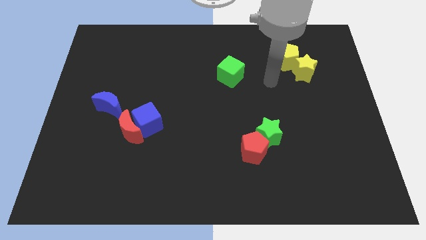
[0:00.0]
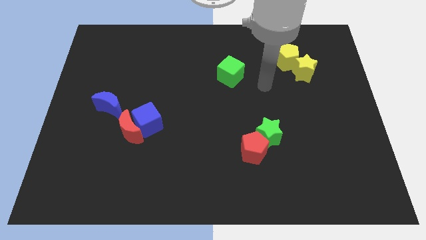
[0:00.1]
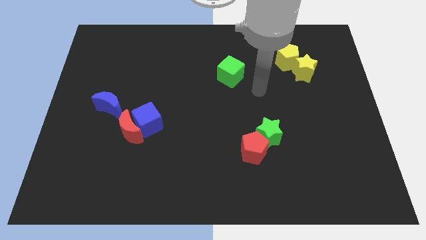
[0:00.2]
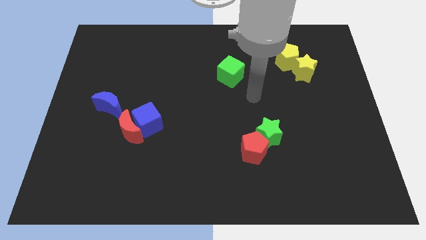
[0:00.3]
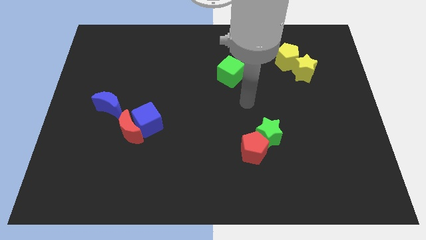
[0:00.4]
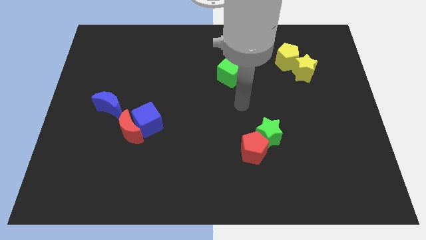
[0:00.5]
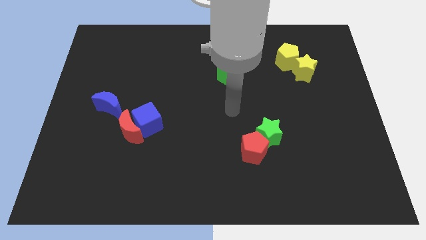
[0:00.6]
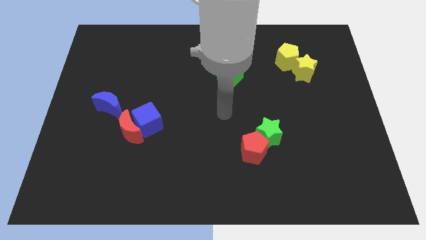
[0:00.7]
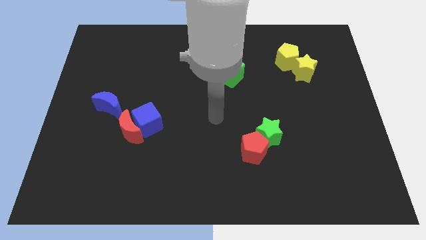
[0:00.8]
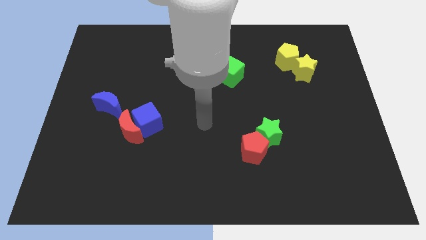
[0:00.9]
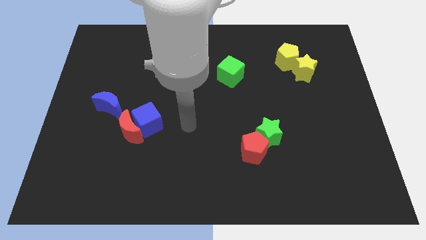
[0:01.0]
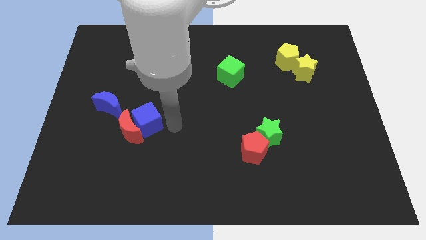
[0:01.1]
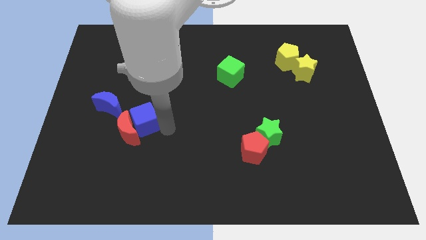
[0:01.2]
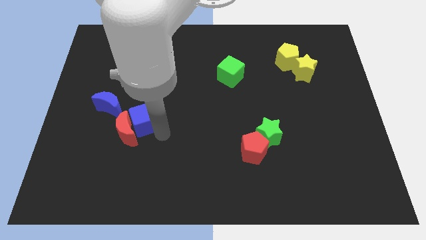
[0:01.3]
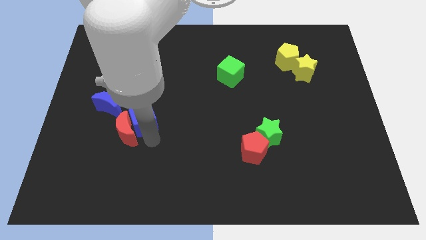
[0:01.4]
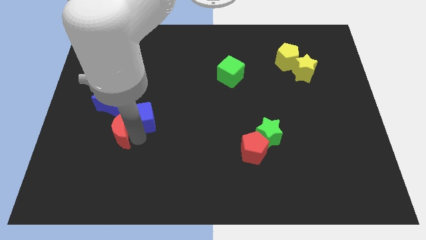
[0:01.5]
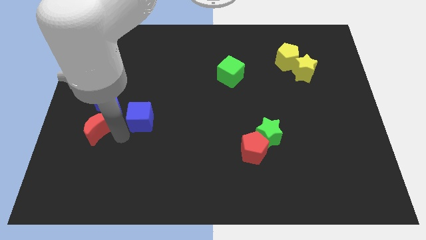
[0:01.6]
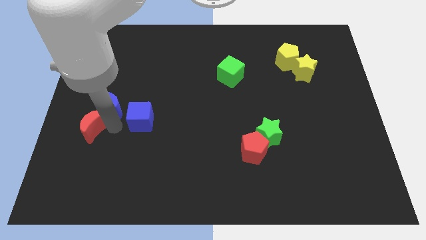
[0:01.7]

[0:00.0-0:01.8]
separate the blue cube from the red moon

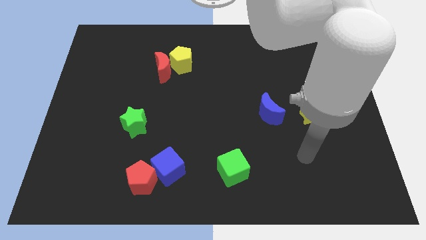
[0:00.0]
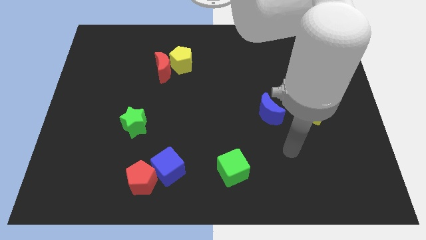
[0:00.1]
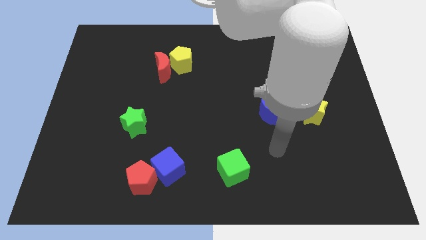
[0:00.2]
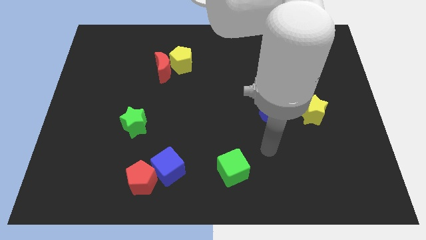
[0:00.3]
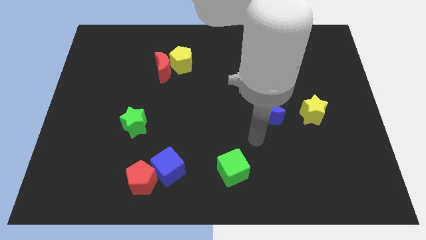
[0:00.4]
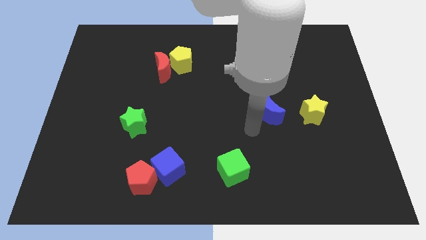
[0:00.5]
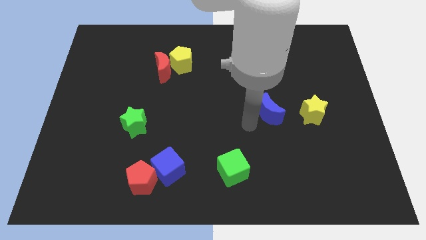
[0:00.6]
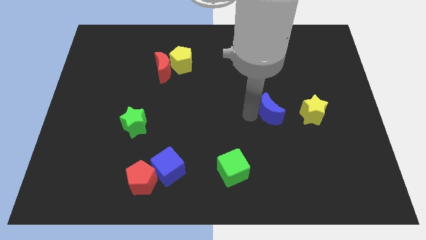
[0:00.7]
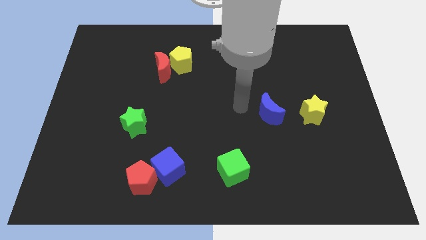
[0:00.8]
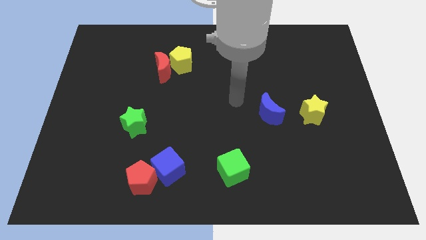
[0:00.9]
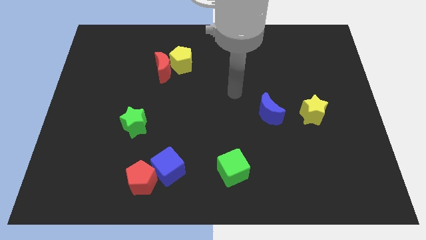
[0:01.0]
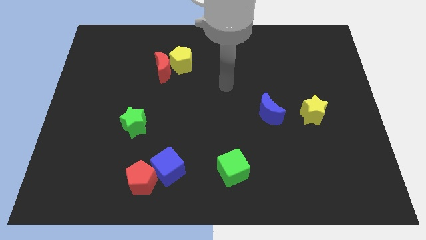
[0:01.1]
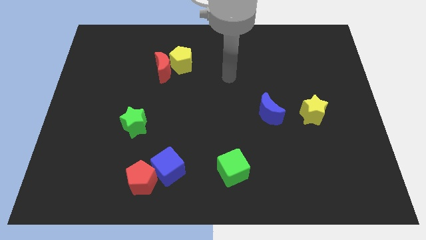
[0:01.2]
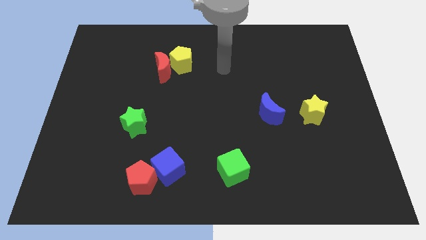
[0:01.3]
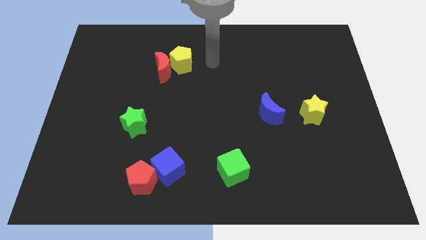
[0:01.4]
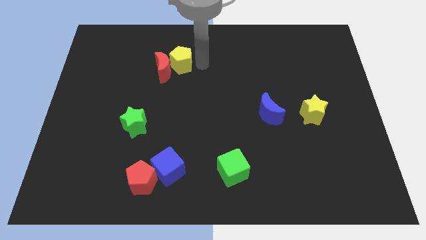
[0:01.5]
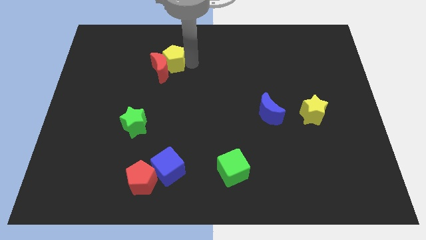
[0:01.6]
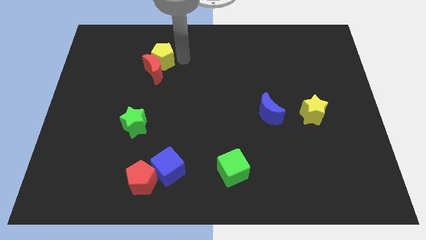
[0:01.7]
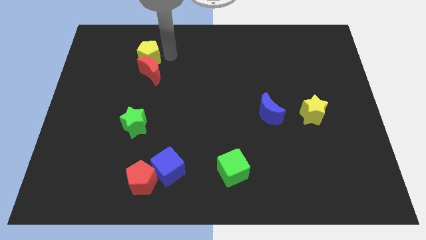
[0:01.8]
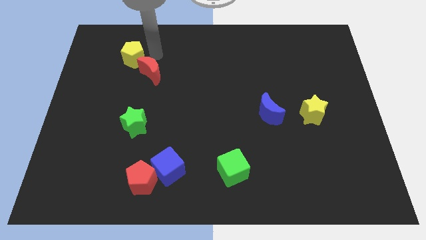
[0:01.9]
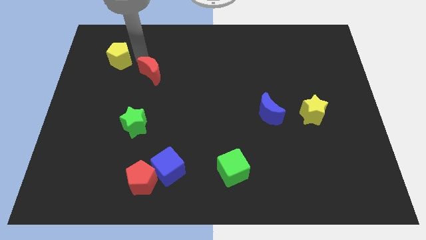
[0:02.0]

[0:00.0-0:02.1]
move the red moon away from the yellow pentagon

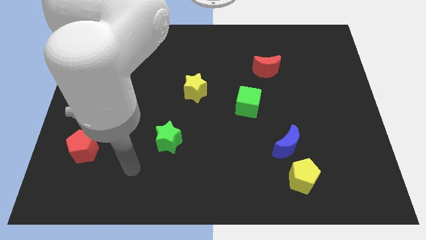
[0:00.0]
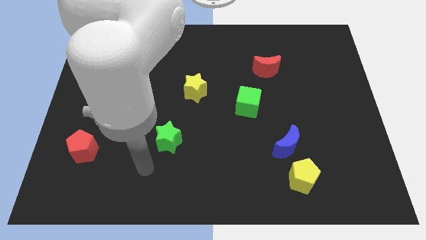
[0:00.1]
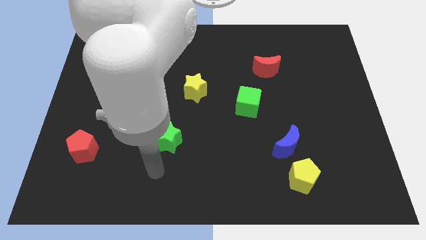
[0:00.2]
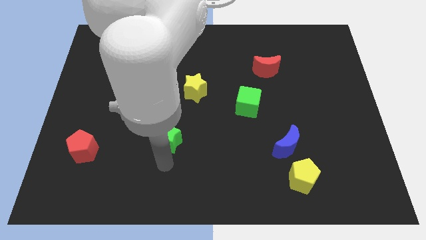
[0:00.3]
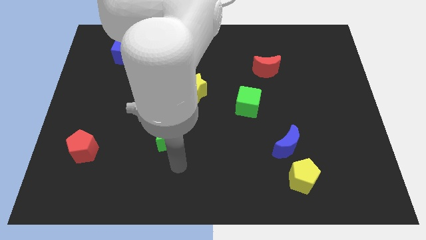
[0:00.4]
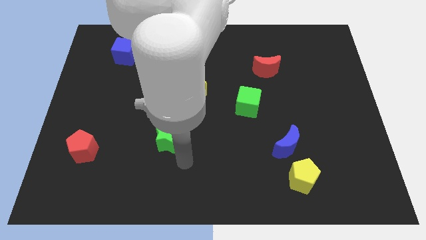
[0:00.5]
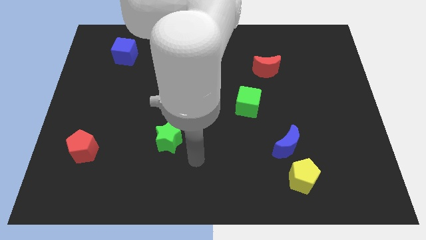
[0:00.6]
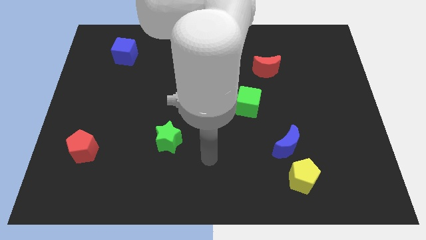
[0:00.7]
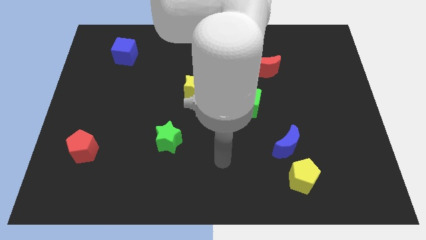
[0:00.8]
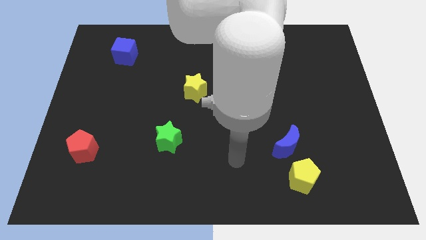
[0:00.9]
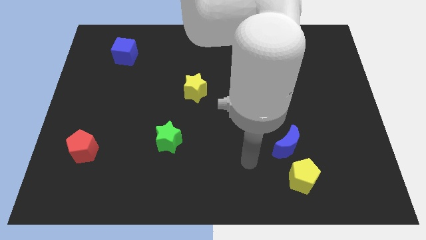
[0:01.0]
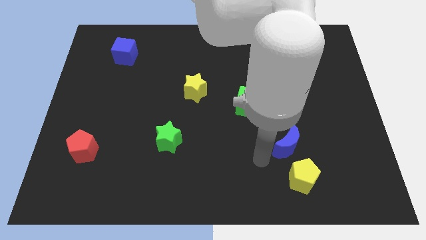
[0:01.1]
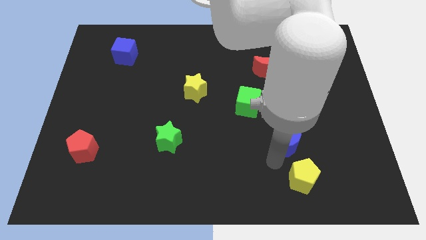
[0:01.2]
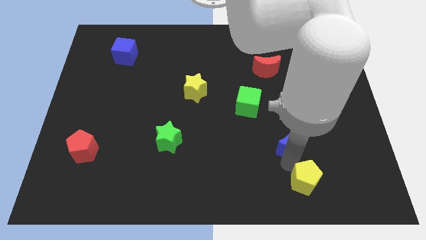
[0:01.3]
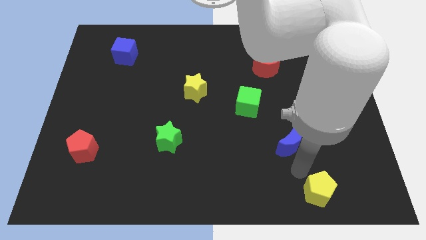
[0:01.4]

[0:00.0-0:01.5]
pull the blue moon apart from the yellow pentagon

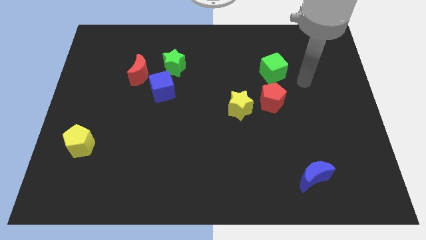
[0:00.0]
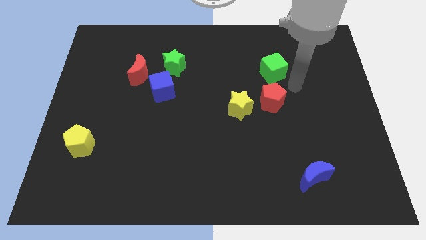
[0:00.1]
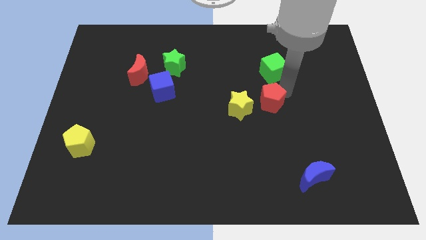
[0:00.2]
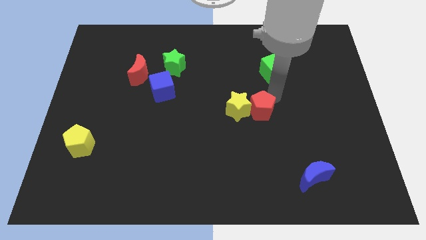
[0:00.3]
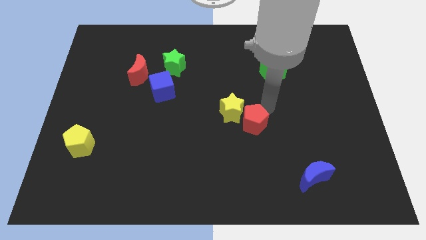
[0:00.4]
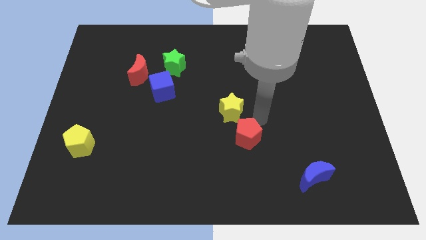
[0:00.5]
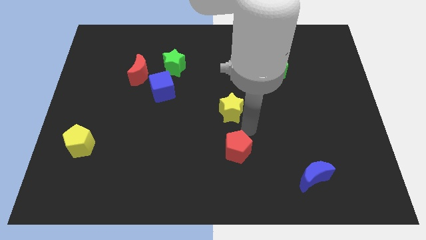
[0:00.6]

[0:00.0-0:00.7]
move the yellow star away from the red pentagon

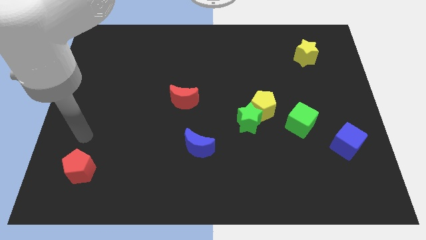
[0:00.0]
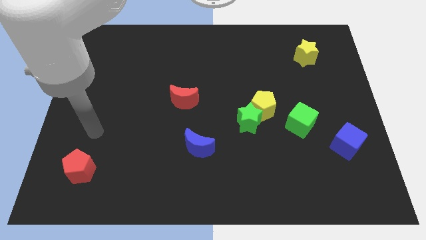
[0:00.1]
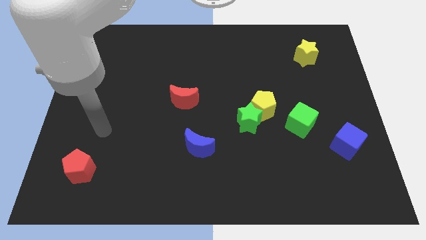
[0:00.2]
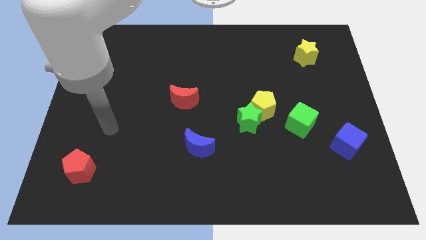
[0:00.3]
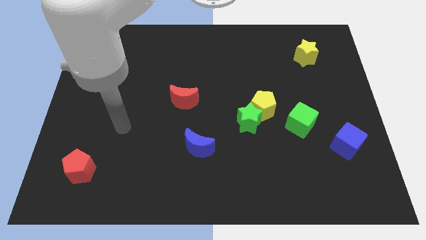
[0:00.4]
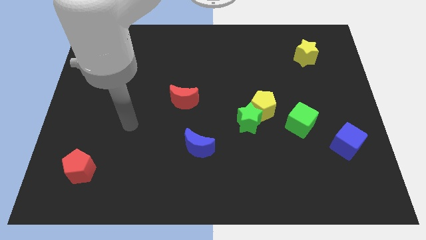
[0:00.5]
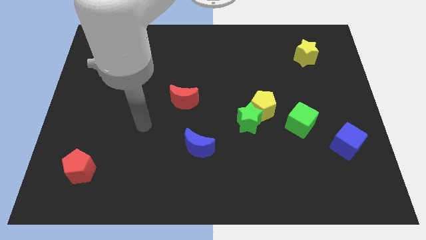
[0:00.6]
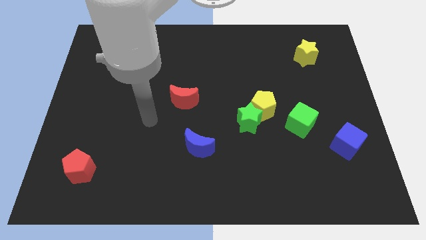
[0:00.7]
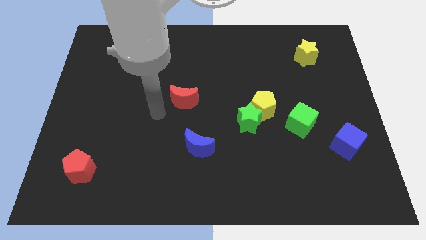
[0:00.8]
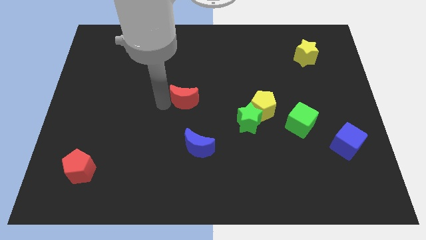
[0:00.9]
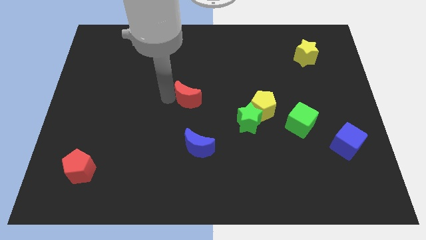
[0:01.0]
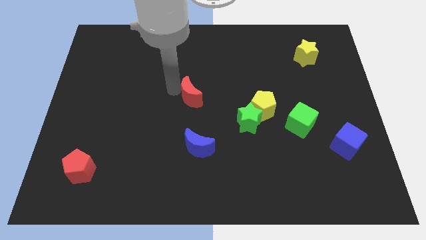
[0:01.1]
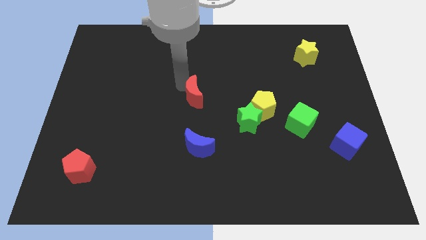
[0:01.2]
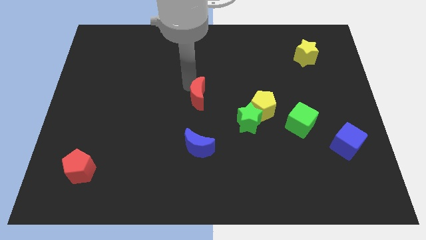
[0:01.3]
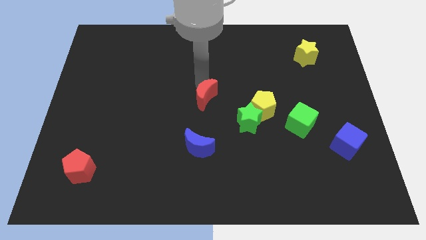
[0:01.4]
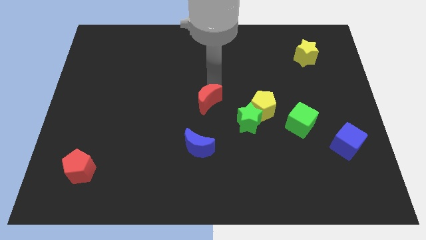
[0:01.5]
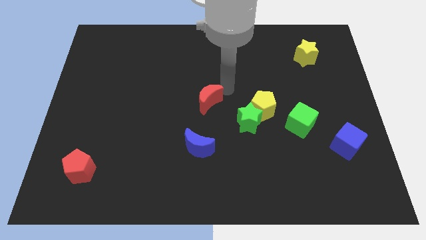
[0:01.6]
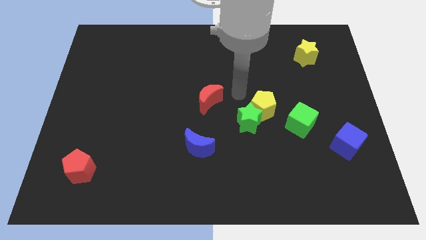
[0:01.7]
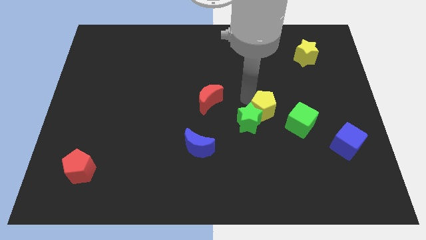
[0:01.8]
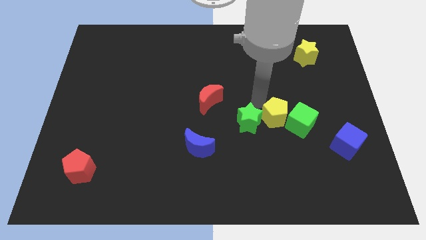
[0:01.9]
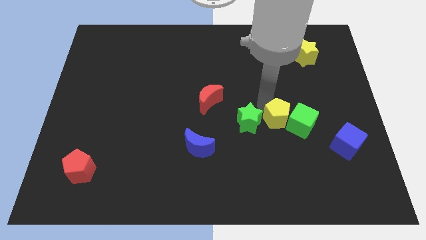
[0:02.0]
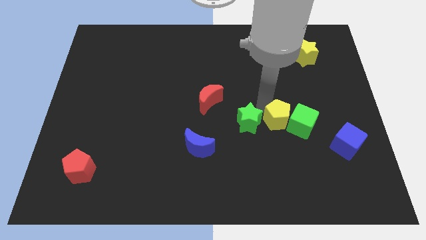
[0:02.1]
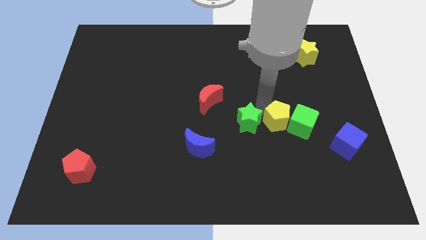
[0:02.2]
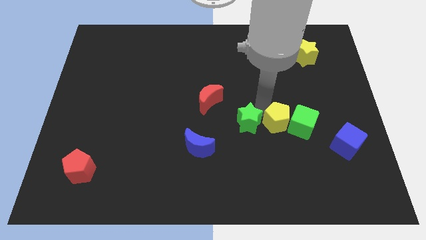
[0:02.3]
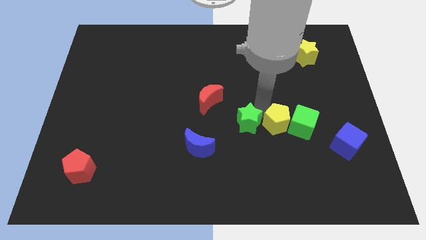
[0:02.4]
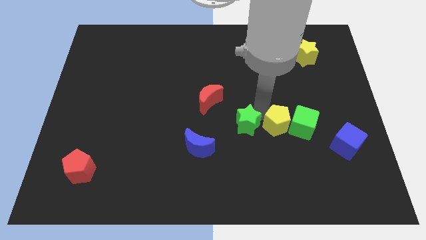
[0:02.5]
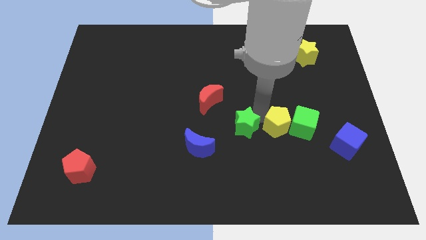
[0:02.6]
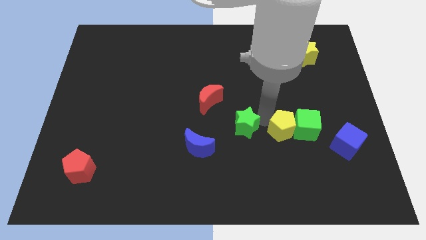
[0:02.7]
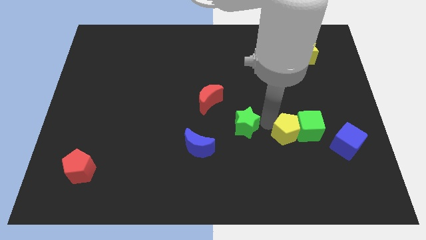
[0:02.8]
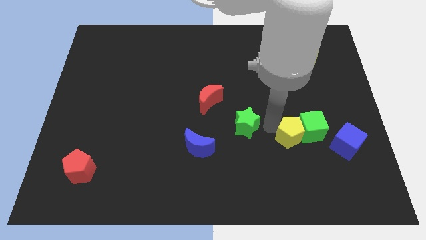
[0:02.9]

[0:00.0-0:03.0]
pull the green star apart from the yellow pentagon

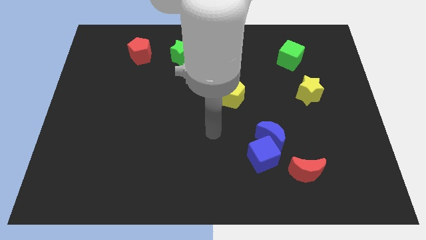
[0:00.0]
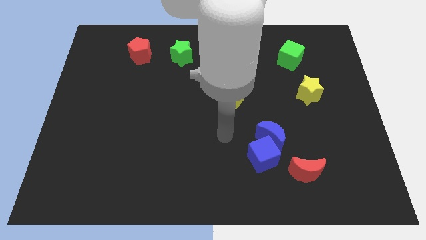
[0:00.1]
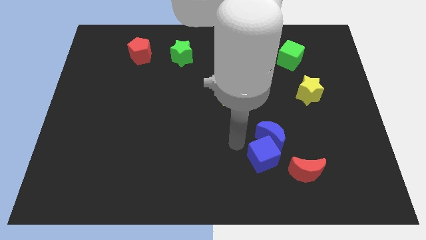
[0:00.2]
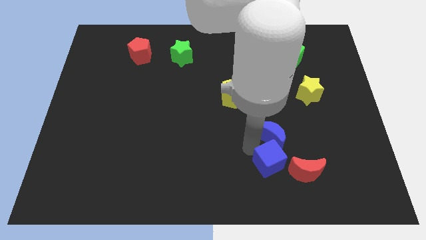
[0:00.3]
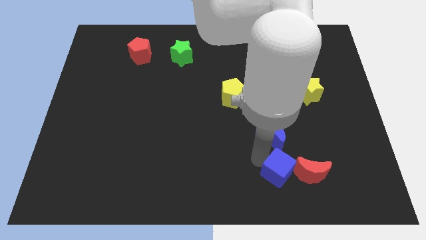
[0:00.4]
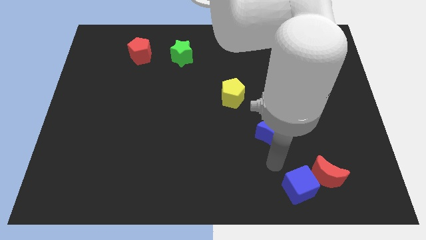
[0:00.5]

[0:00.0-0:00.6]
pull the blue moon apart from the blue cube
